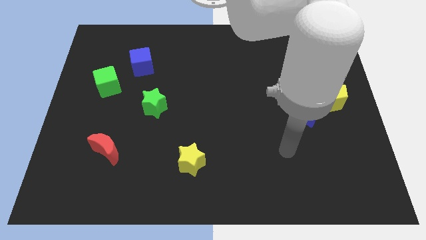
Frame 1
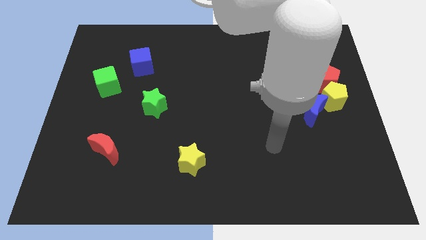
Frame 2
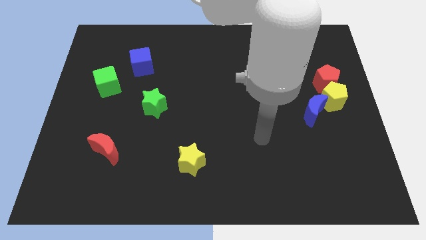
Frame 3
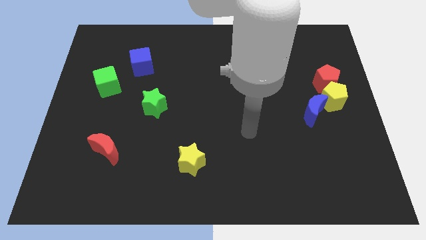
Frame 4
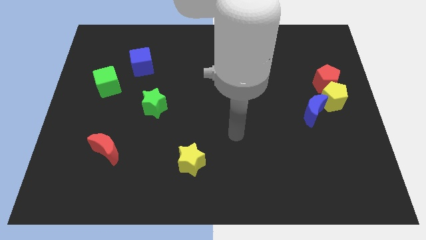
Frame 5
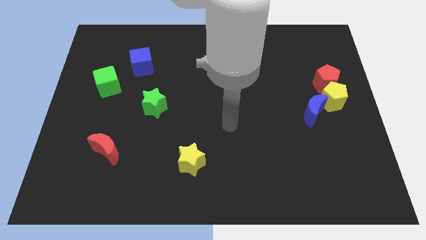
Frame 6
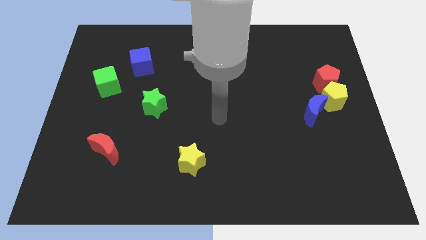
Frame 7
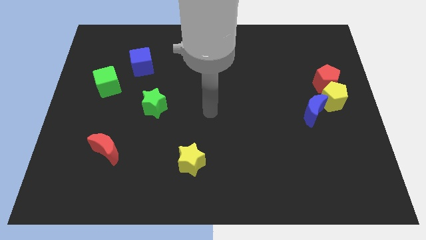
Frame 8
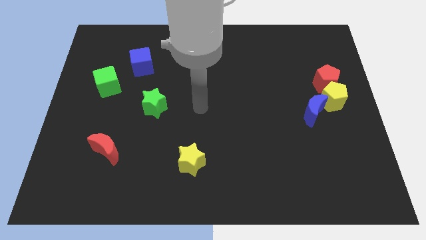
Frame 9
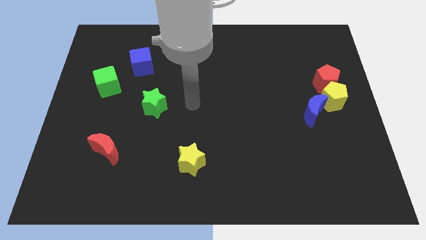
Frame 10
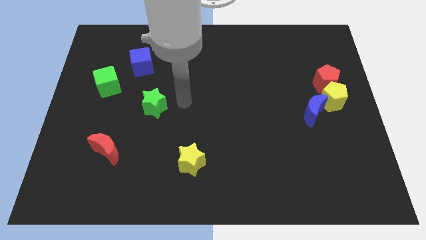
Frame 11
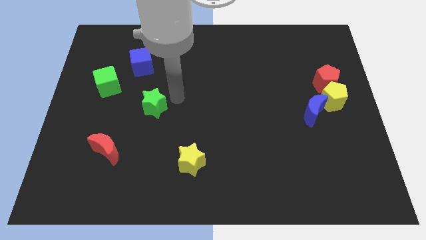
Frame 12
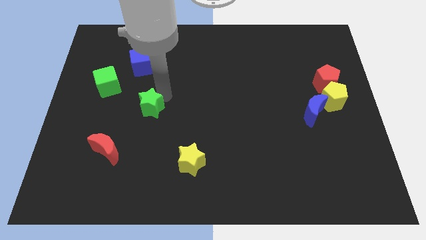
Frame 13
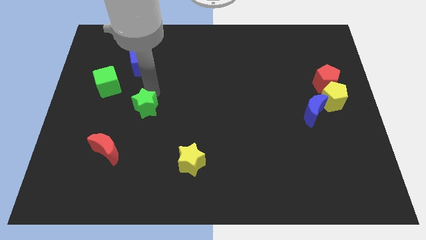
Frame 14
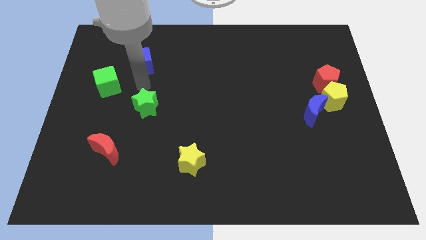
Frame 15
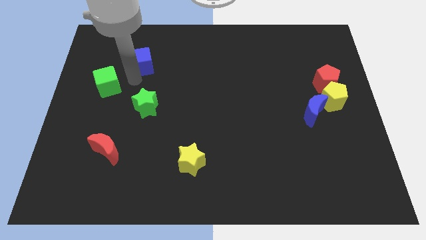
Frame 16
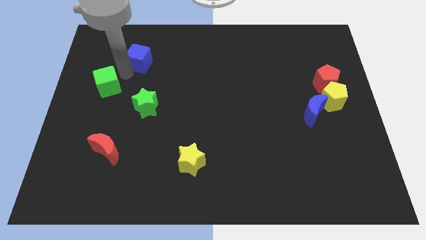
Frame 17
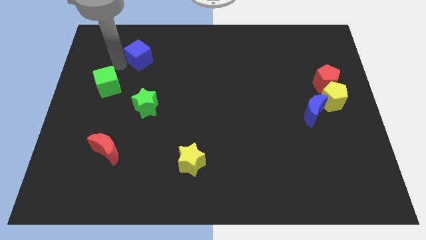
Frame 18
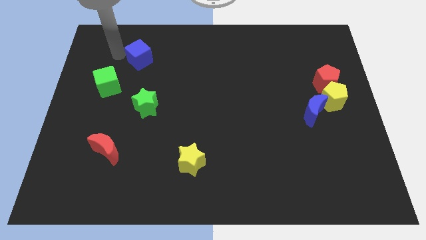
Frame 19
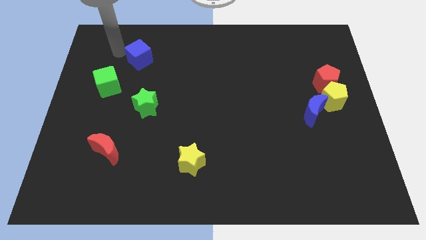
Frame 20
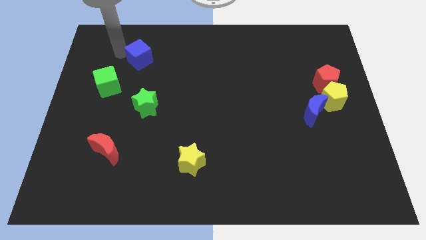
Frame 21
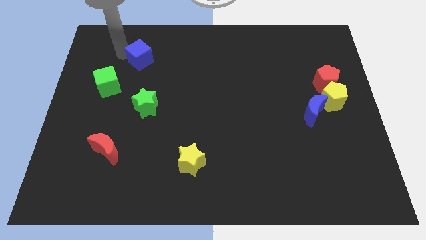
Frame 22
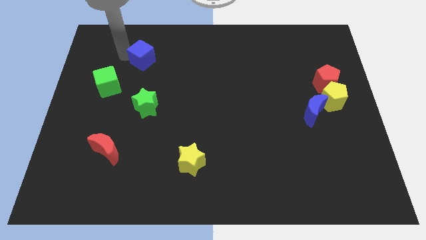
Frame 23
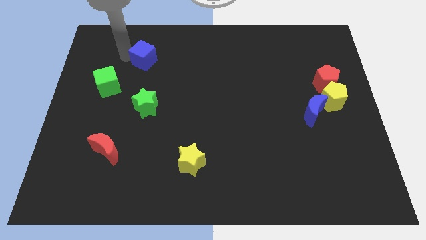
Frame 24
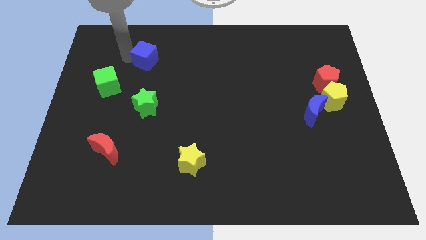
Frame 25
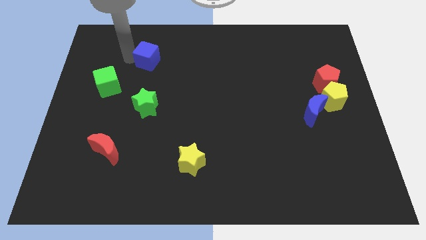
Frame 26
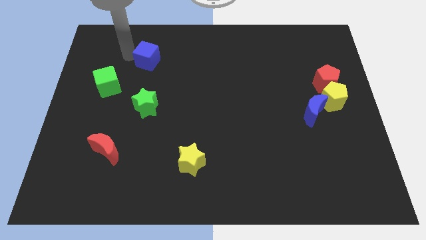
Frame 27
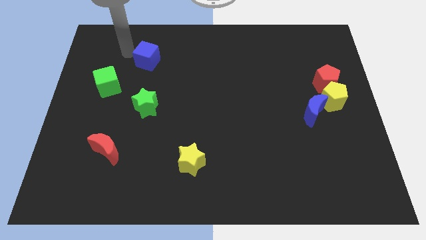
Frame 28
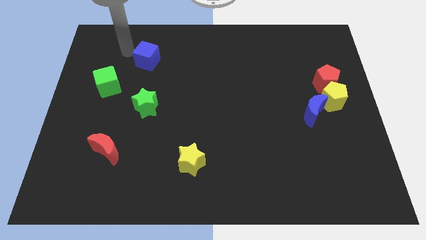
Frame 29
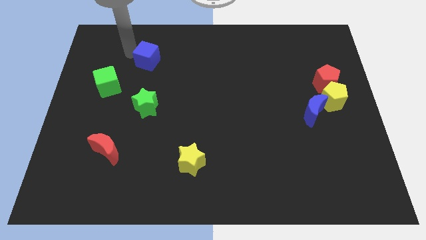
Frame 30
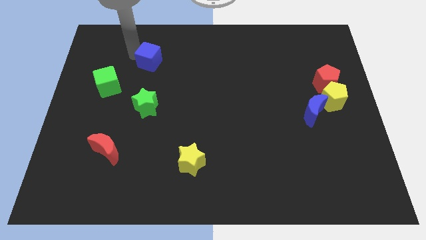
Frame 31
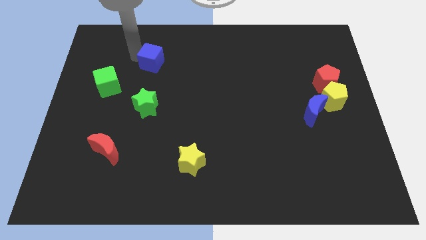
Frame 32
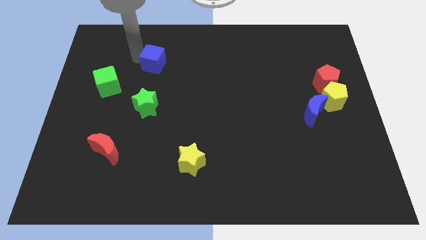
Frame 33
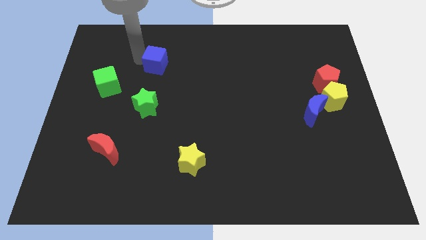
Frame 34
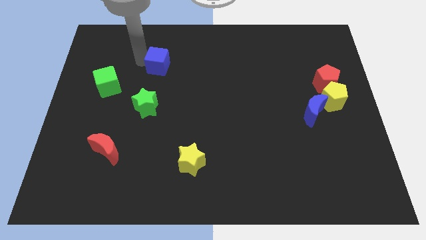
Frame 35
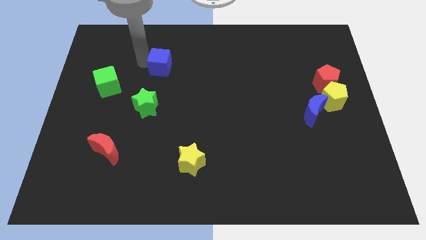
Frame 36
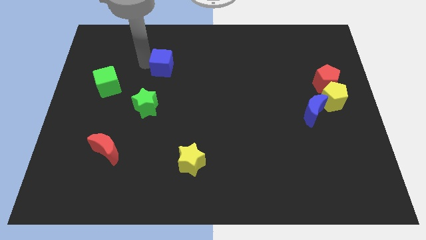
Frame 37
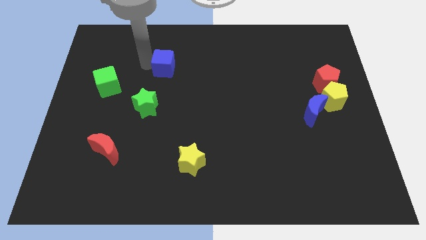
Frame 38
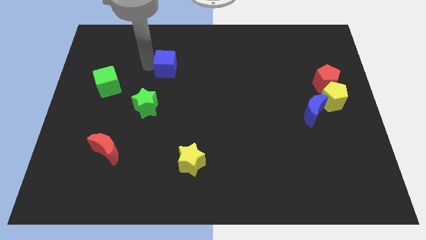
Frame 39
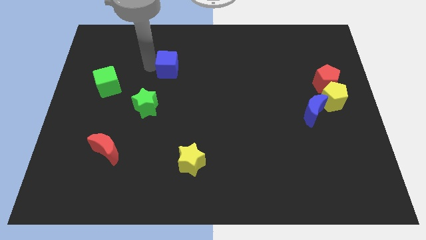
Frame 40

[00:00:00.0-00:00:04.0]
slightly slide the blue cube right

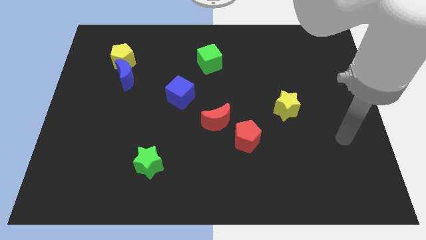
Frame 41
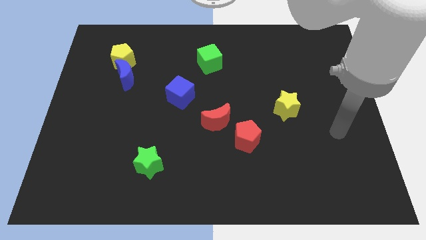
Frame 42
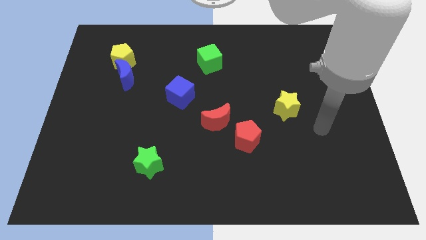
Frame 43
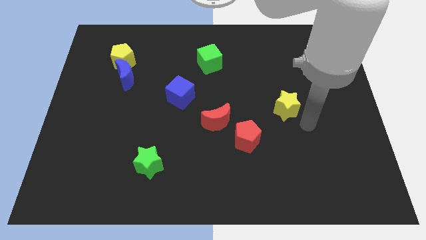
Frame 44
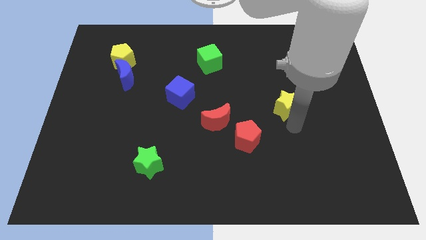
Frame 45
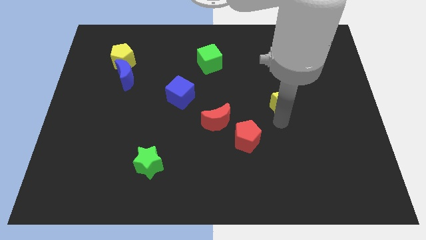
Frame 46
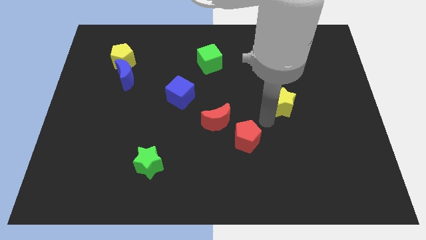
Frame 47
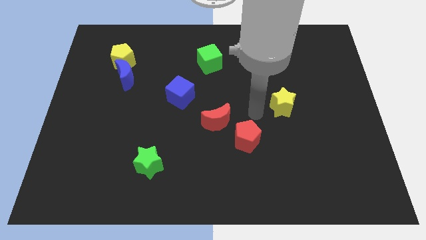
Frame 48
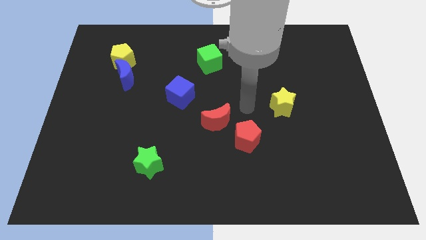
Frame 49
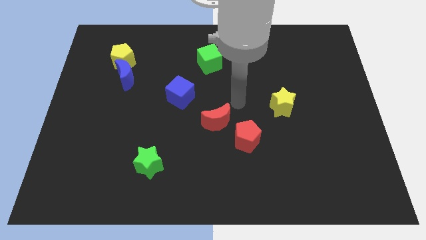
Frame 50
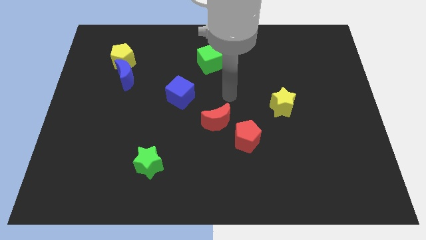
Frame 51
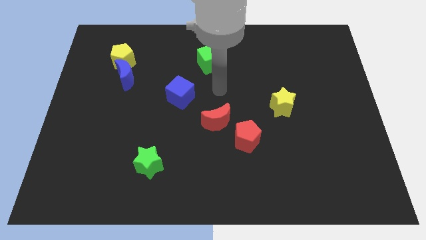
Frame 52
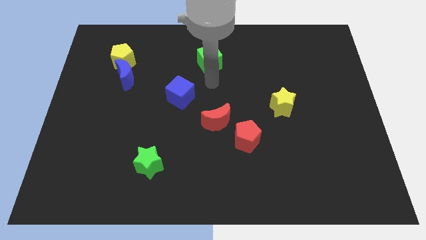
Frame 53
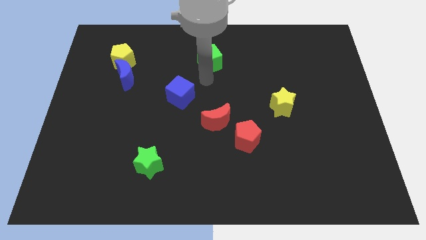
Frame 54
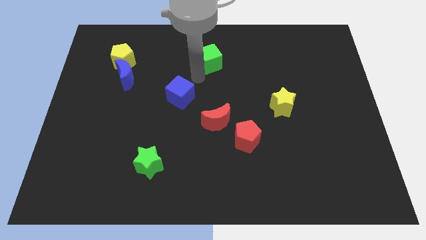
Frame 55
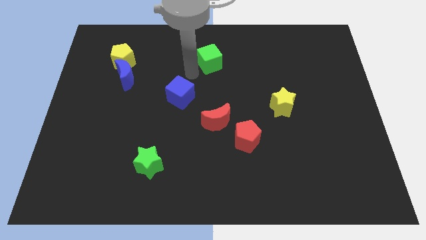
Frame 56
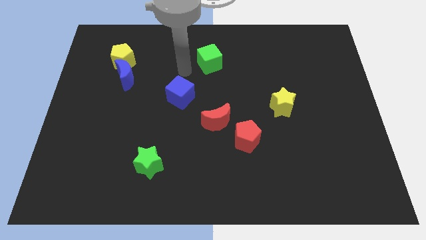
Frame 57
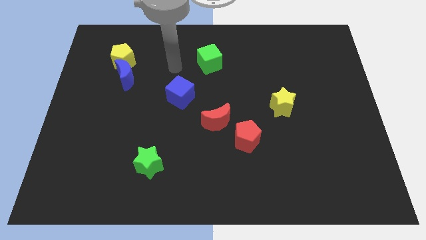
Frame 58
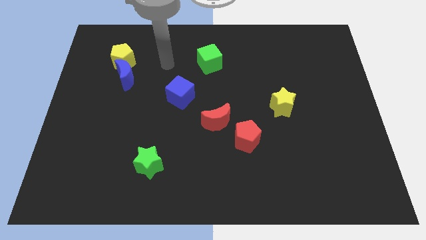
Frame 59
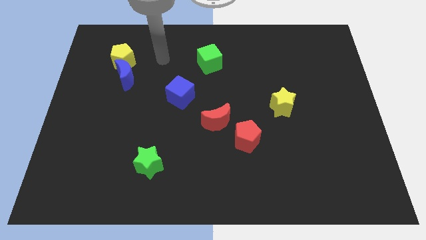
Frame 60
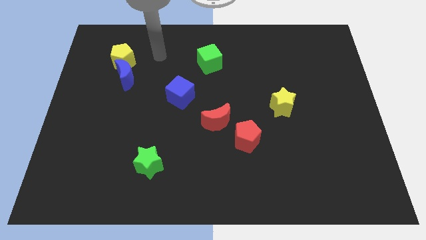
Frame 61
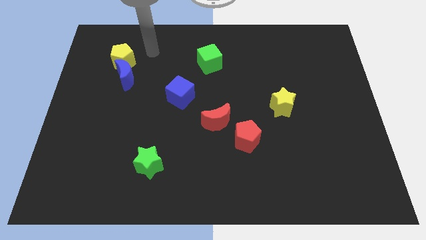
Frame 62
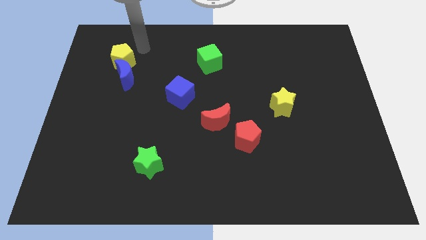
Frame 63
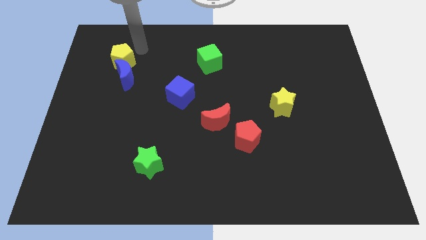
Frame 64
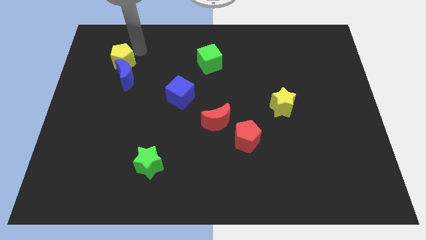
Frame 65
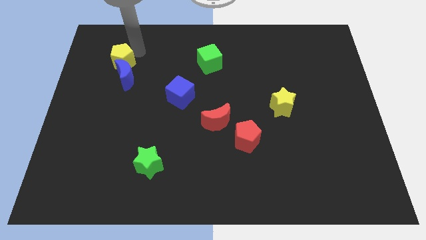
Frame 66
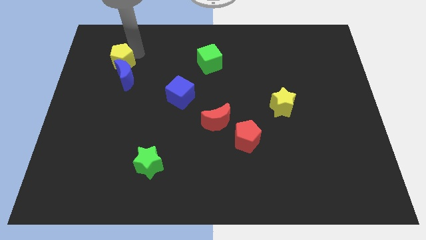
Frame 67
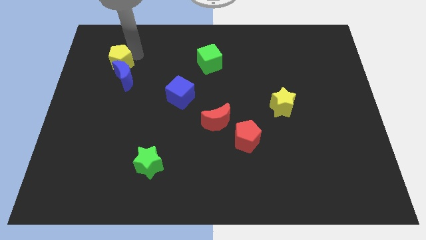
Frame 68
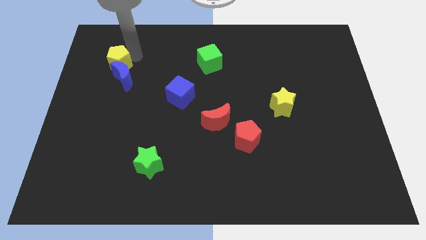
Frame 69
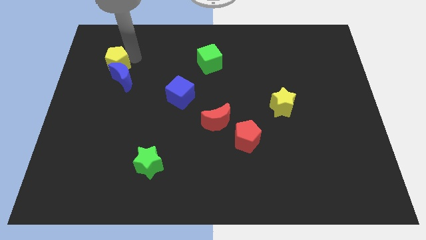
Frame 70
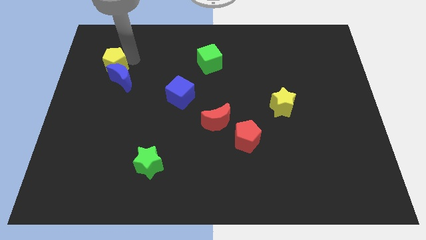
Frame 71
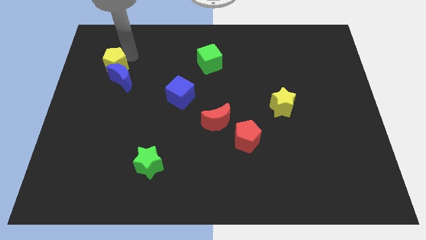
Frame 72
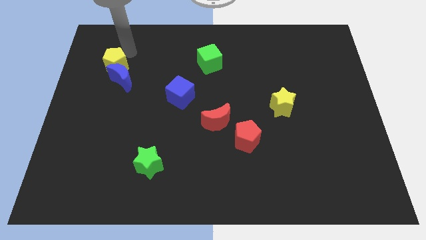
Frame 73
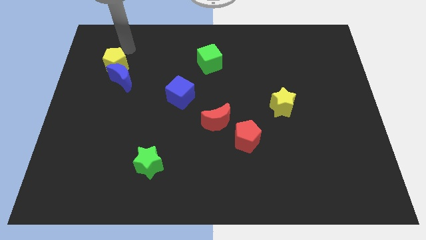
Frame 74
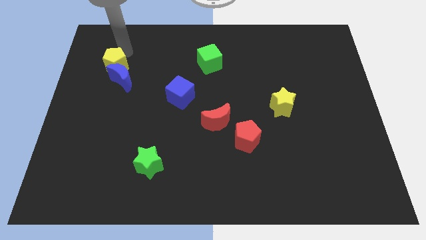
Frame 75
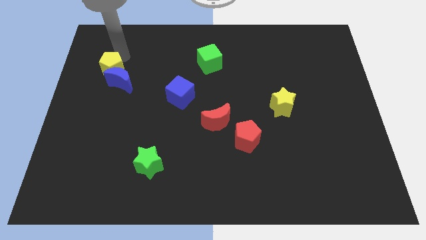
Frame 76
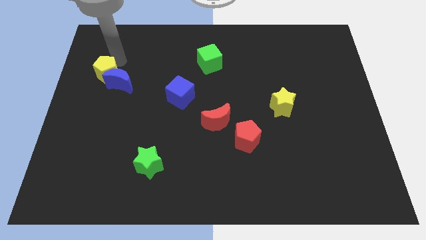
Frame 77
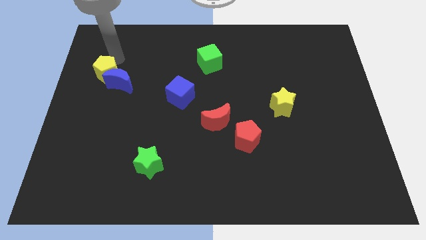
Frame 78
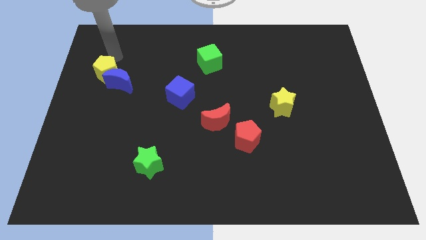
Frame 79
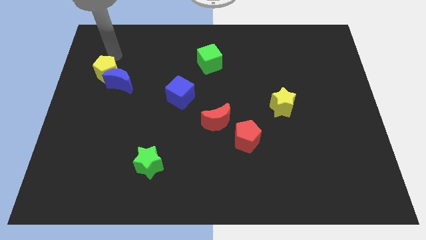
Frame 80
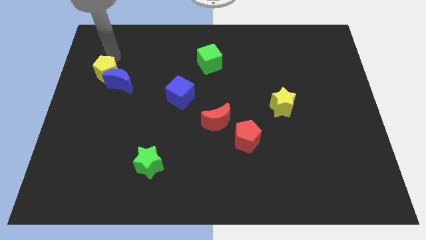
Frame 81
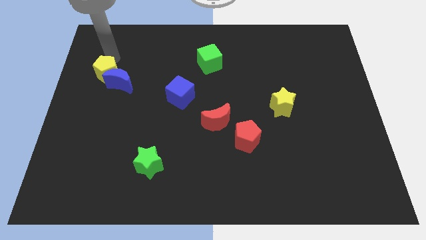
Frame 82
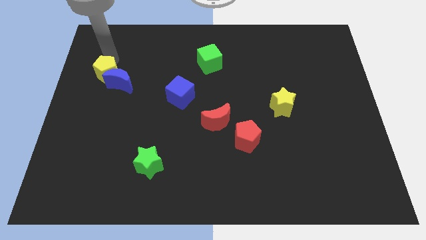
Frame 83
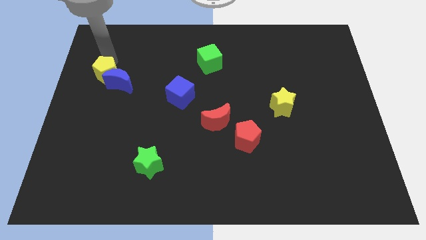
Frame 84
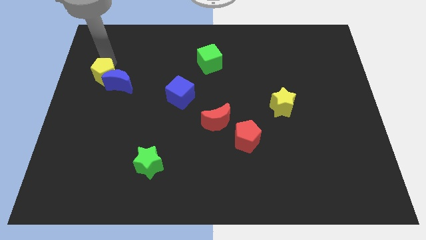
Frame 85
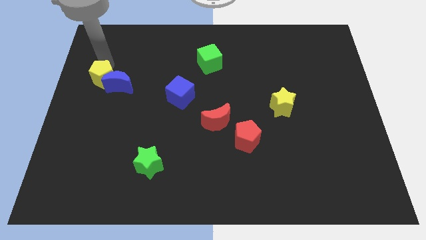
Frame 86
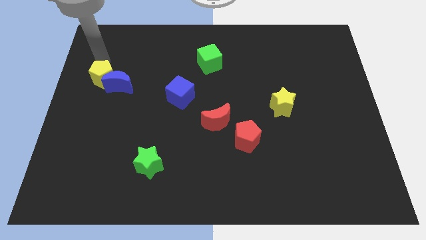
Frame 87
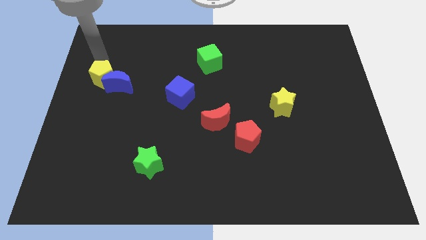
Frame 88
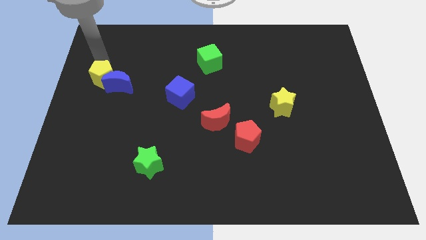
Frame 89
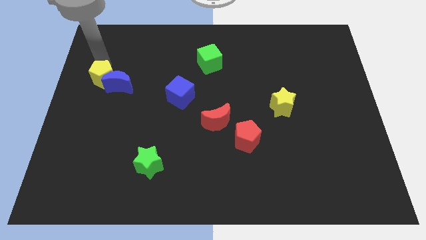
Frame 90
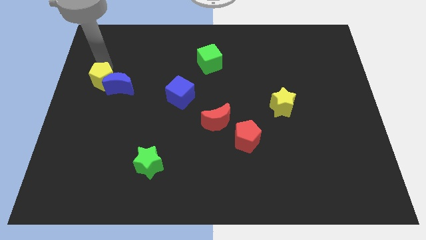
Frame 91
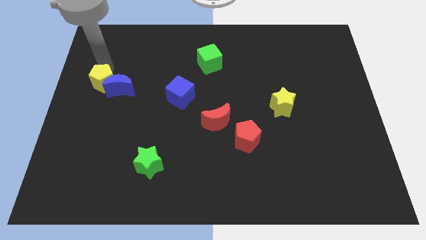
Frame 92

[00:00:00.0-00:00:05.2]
slide the yellow pentagon down a bit
